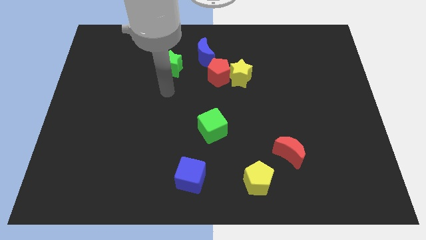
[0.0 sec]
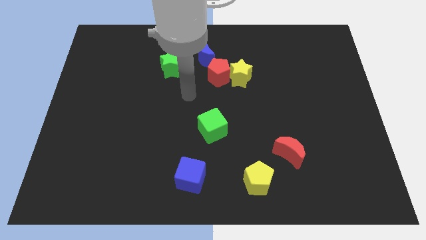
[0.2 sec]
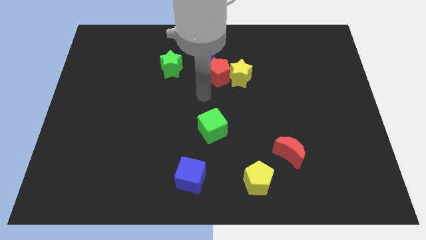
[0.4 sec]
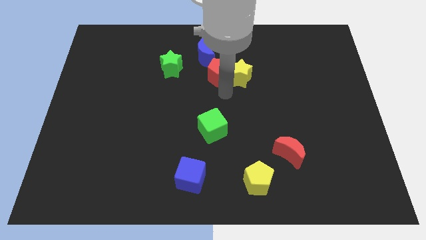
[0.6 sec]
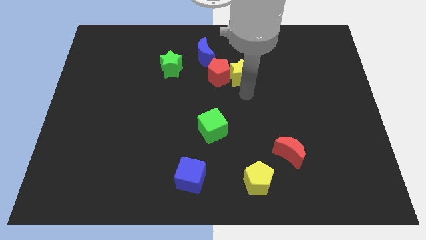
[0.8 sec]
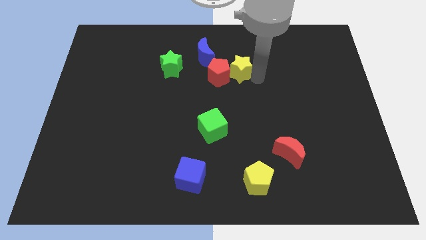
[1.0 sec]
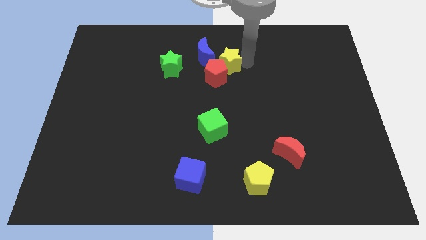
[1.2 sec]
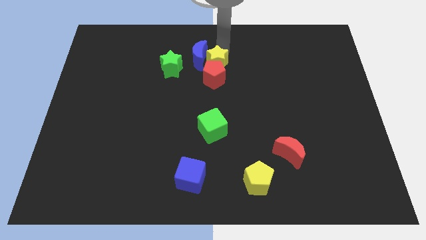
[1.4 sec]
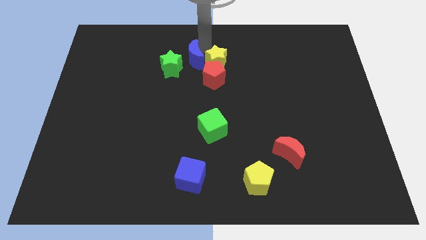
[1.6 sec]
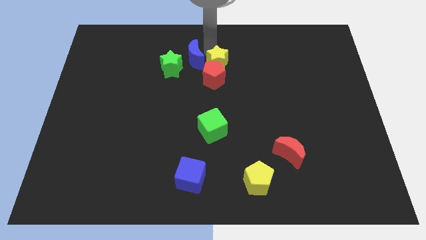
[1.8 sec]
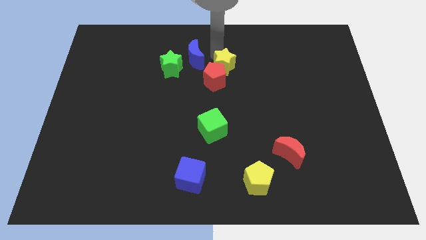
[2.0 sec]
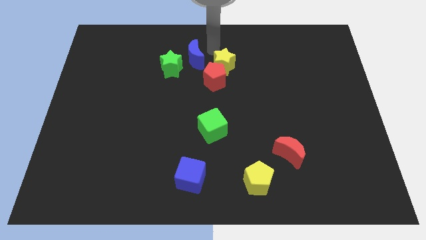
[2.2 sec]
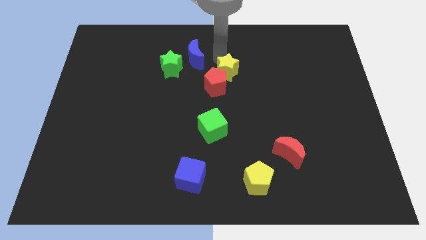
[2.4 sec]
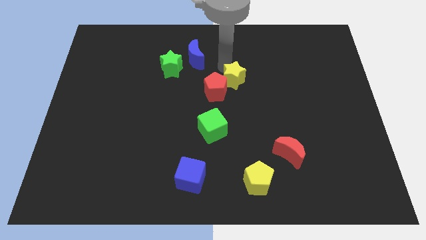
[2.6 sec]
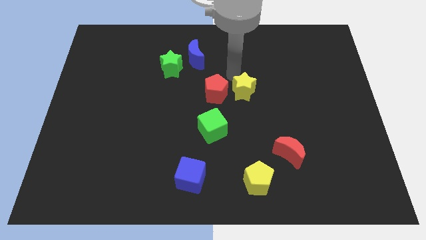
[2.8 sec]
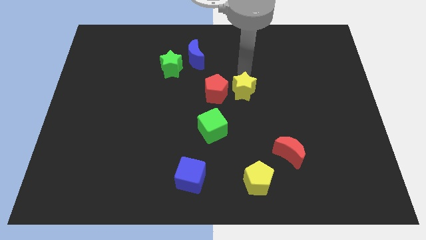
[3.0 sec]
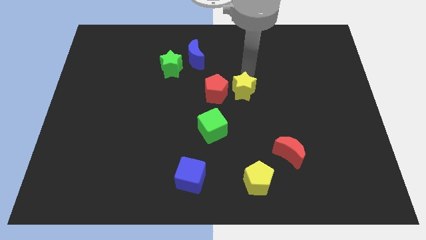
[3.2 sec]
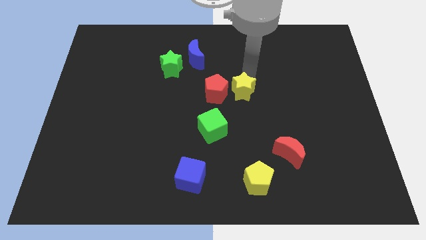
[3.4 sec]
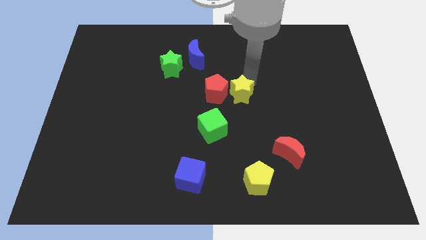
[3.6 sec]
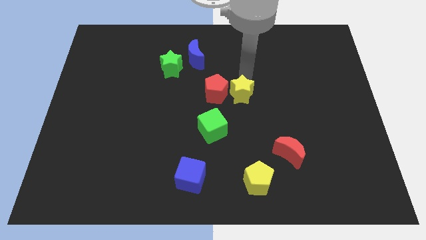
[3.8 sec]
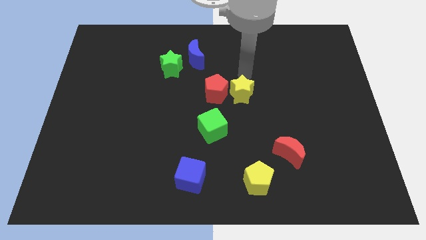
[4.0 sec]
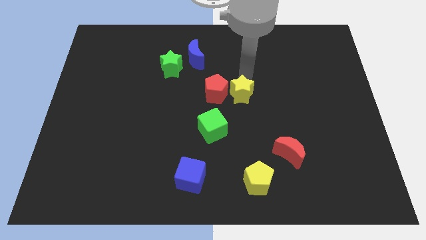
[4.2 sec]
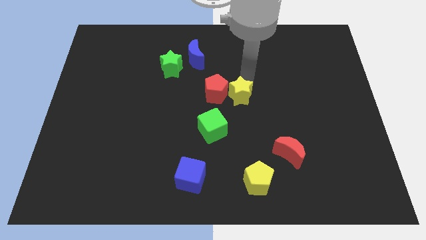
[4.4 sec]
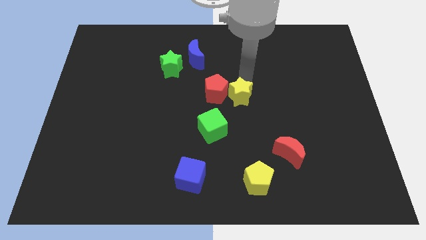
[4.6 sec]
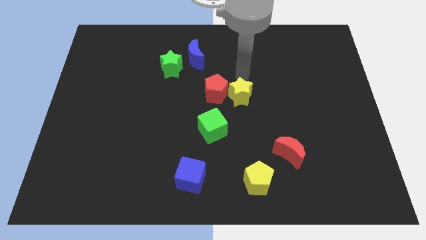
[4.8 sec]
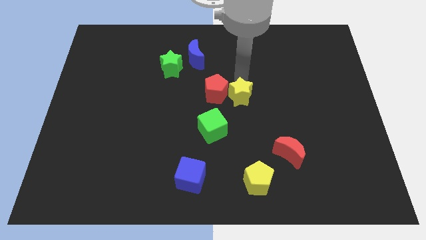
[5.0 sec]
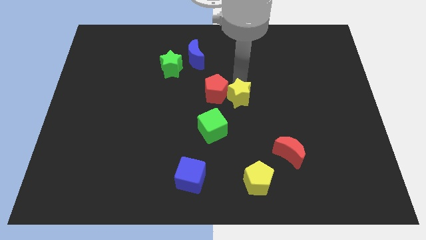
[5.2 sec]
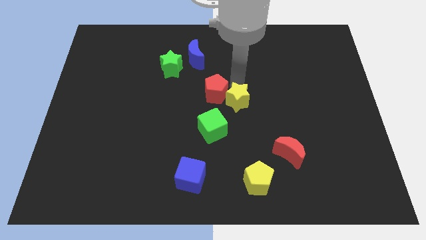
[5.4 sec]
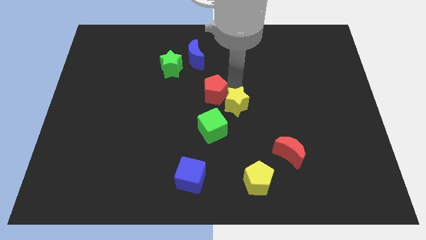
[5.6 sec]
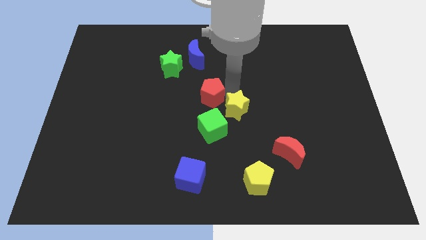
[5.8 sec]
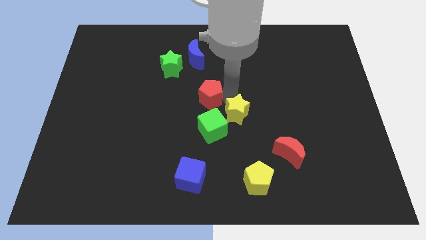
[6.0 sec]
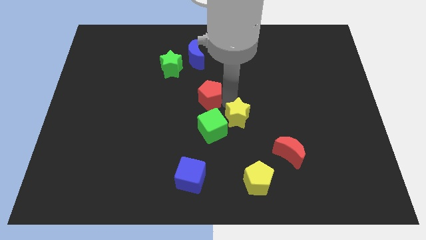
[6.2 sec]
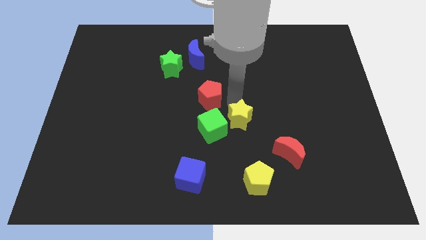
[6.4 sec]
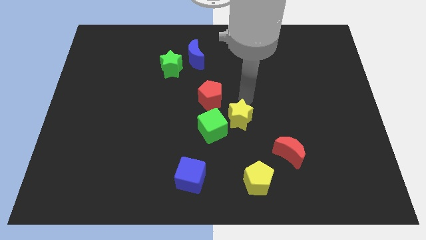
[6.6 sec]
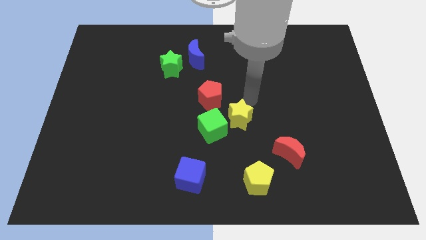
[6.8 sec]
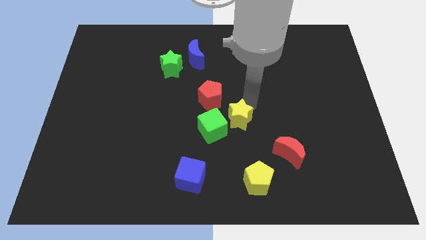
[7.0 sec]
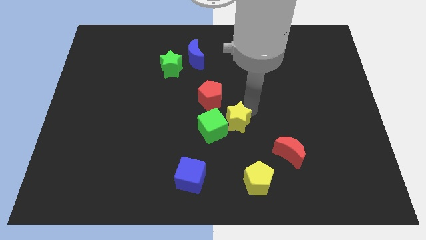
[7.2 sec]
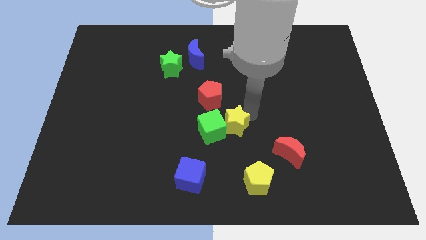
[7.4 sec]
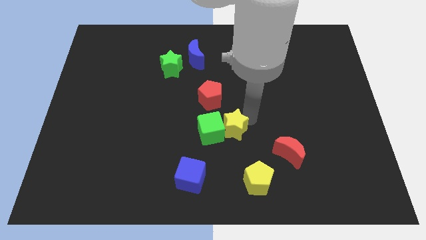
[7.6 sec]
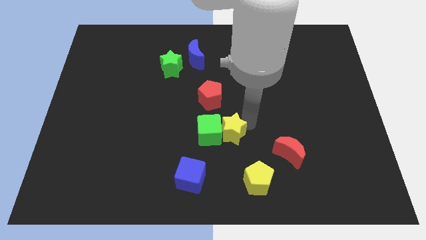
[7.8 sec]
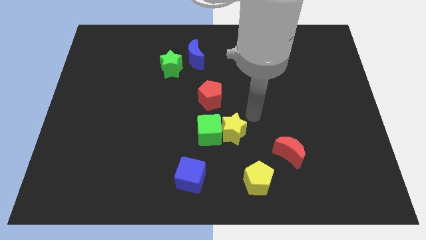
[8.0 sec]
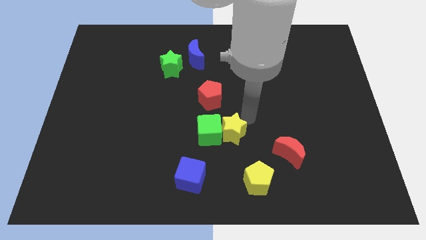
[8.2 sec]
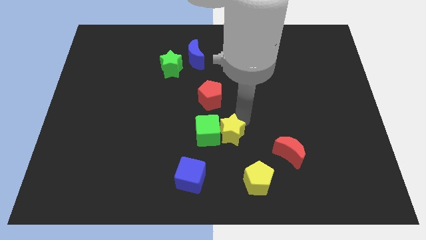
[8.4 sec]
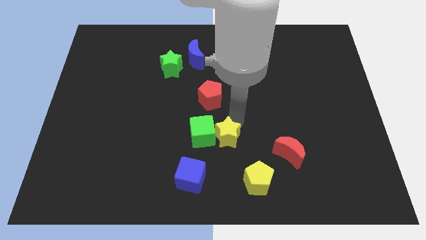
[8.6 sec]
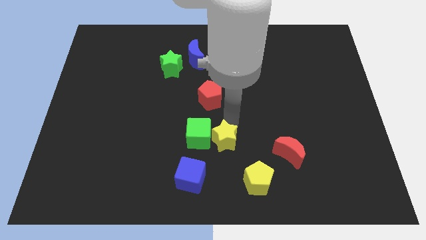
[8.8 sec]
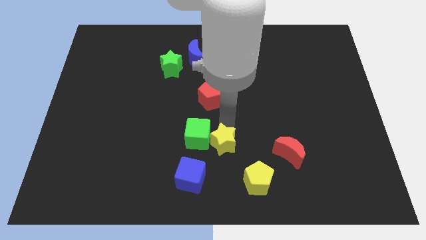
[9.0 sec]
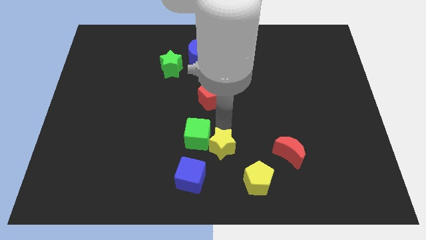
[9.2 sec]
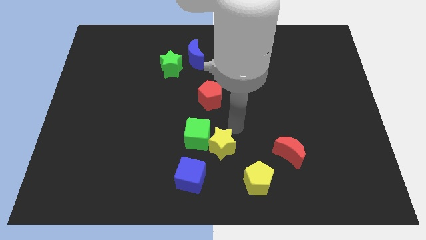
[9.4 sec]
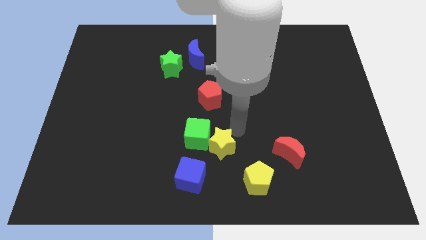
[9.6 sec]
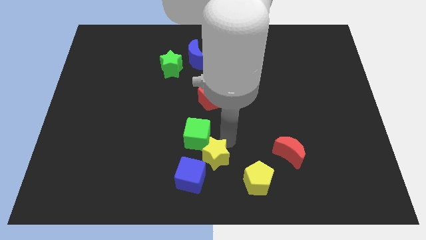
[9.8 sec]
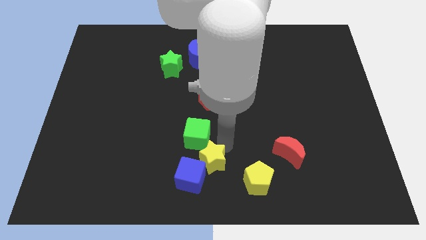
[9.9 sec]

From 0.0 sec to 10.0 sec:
push the yellow star to the blue cube

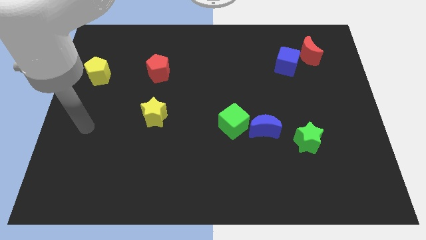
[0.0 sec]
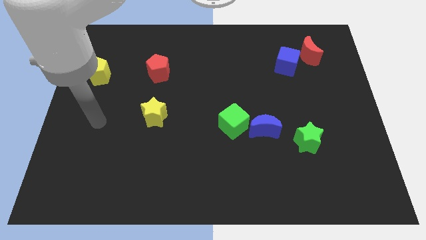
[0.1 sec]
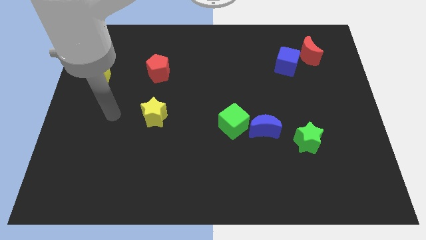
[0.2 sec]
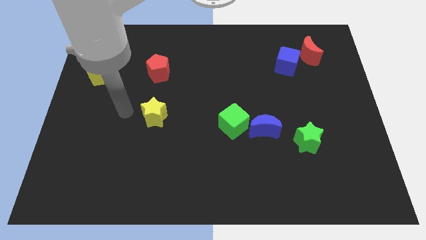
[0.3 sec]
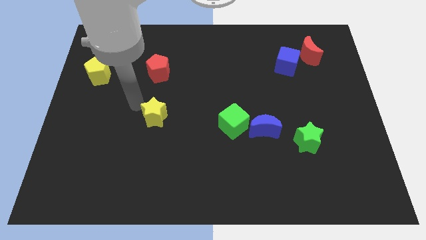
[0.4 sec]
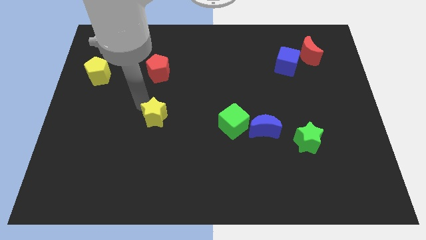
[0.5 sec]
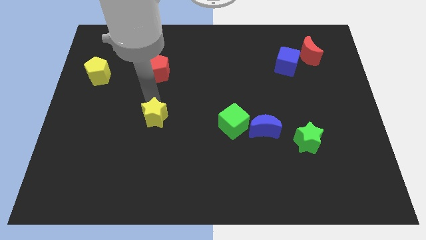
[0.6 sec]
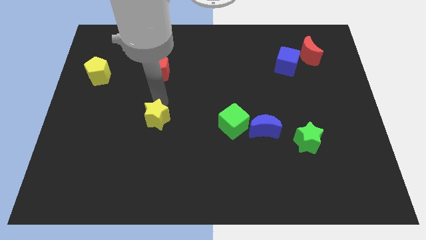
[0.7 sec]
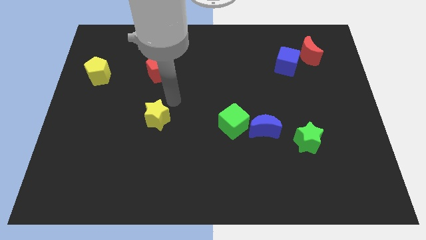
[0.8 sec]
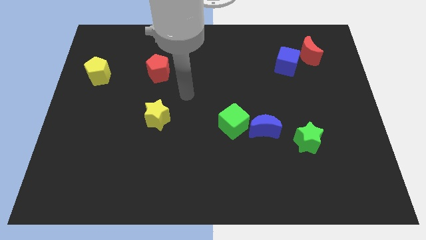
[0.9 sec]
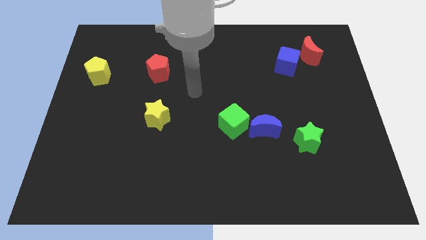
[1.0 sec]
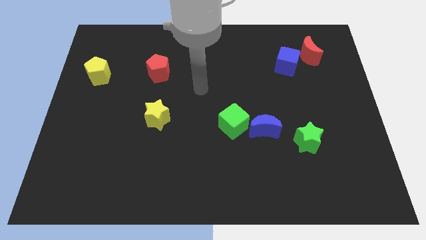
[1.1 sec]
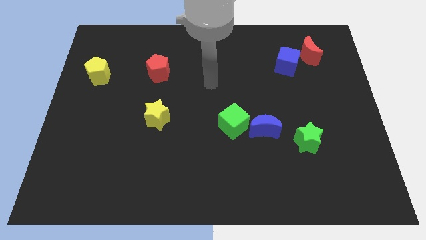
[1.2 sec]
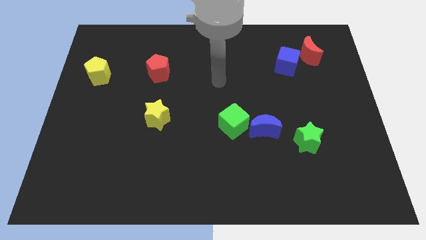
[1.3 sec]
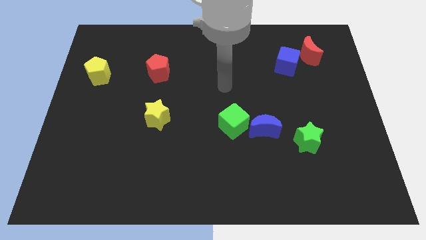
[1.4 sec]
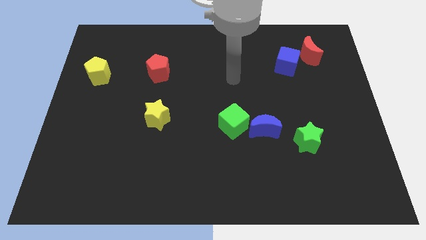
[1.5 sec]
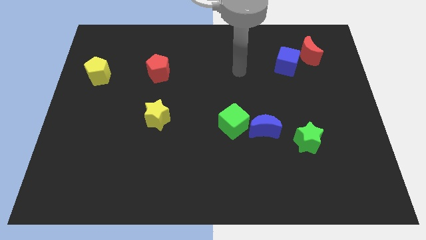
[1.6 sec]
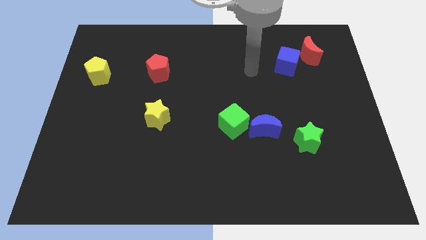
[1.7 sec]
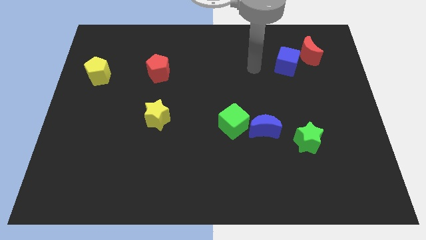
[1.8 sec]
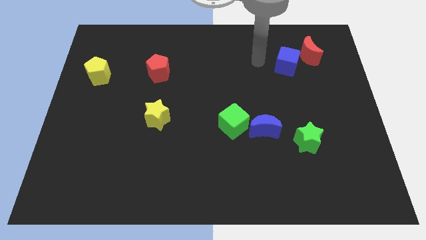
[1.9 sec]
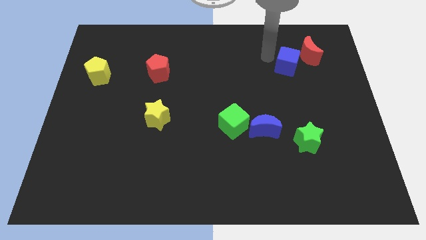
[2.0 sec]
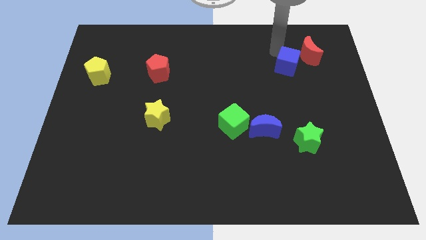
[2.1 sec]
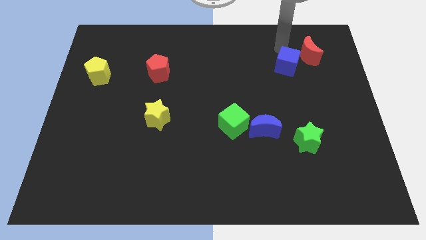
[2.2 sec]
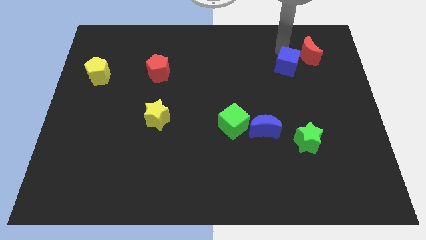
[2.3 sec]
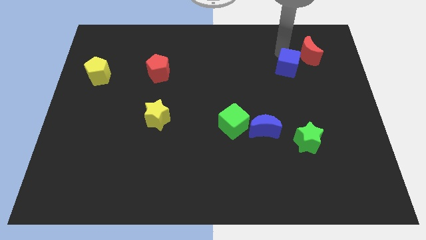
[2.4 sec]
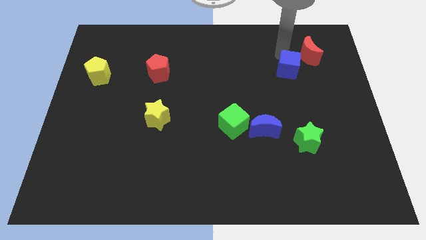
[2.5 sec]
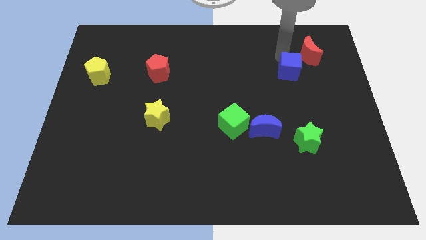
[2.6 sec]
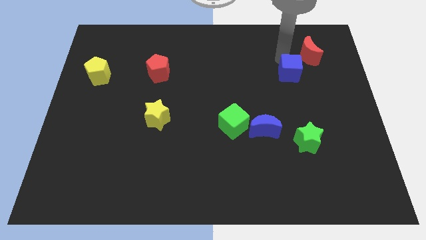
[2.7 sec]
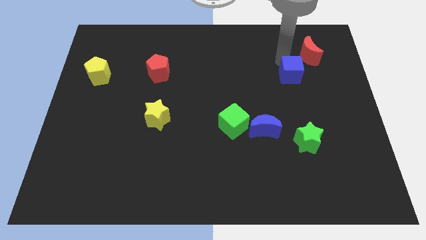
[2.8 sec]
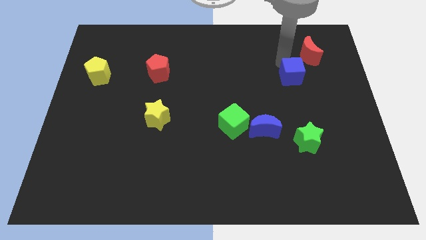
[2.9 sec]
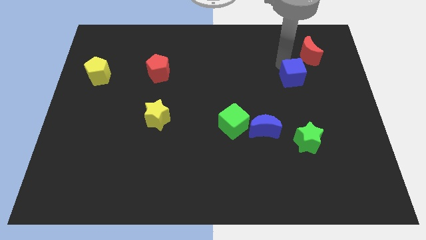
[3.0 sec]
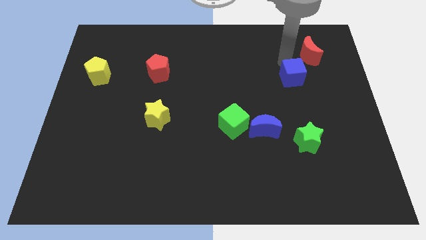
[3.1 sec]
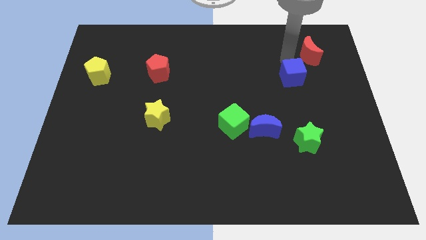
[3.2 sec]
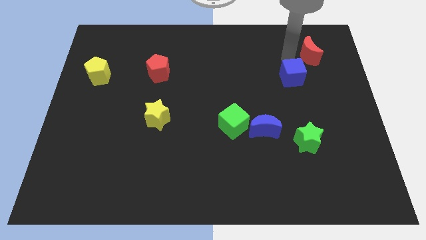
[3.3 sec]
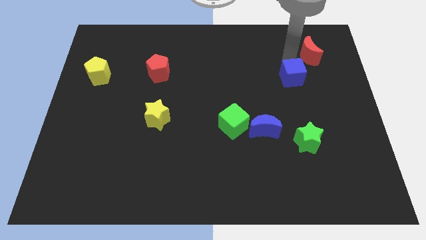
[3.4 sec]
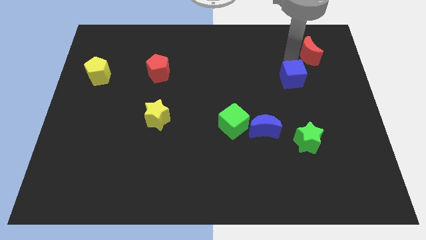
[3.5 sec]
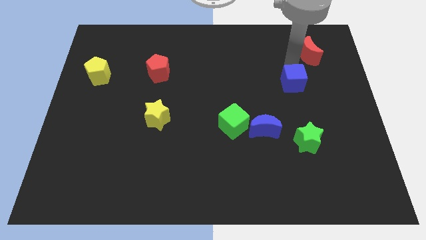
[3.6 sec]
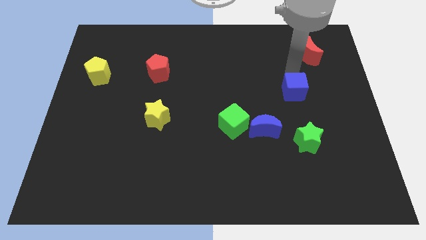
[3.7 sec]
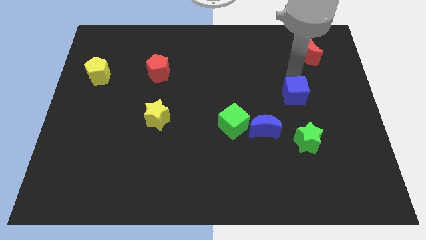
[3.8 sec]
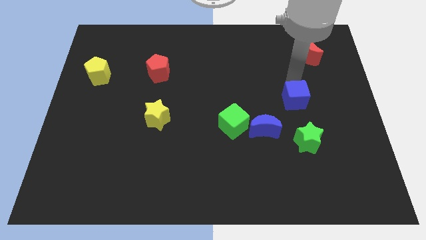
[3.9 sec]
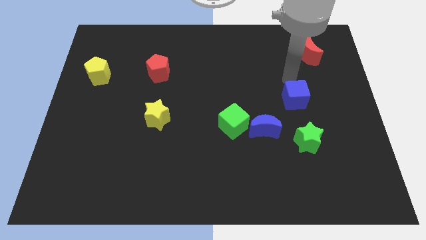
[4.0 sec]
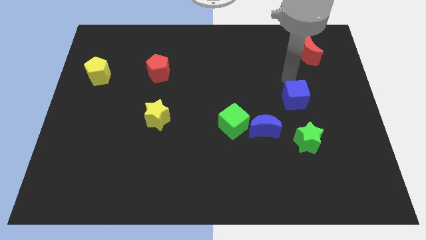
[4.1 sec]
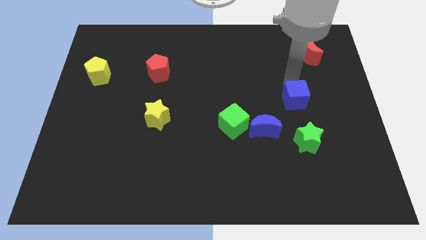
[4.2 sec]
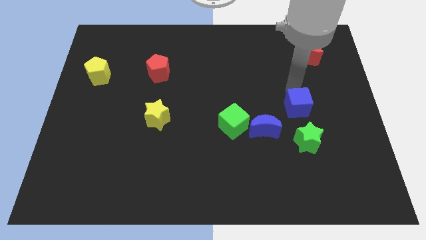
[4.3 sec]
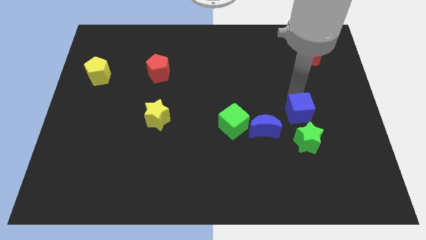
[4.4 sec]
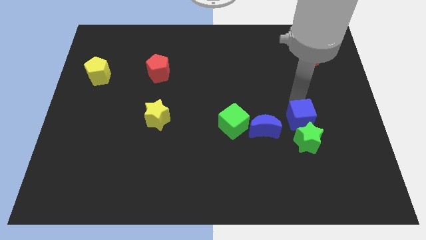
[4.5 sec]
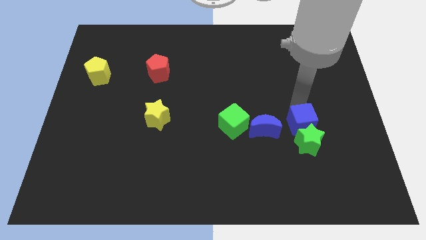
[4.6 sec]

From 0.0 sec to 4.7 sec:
slide the blue cube towards the green star
